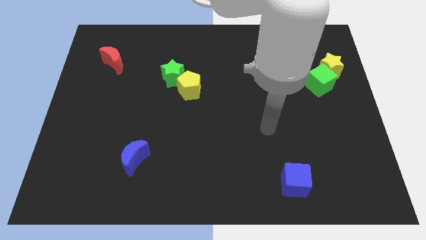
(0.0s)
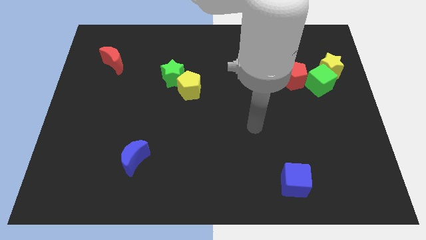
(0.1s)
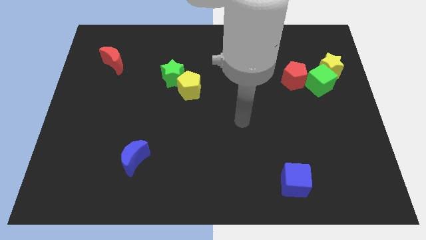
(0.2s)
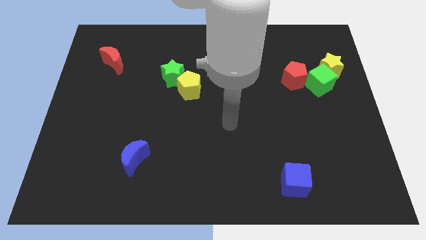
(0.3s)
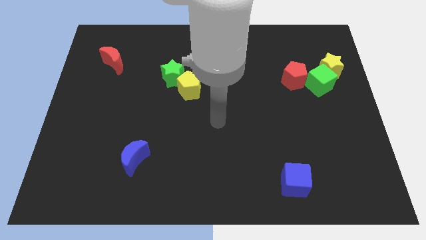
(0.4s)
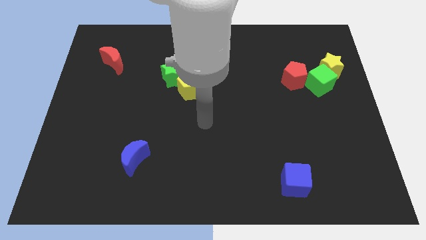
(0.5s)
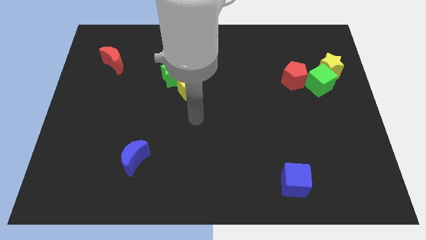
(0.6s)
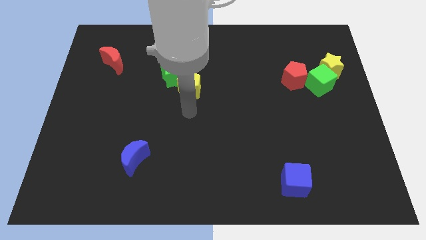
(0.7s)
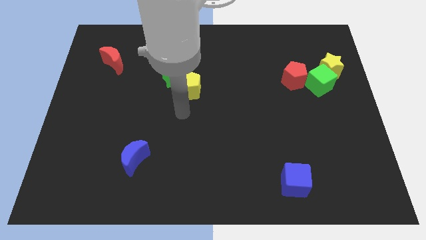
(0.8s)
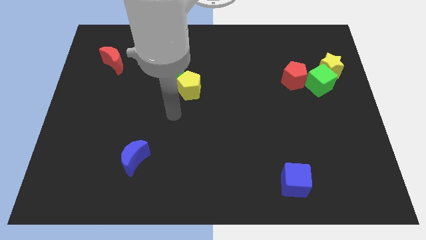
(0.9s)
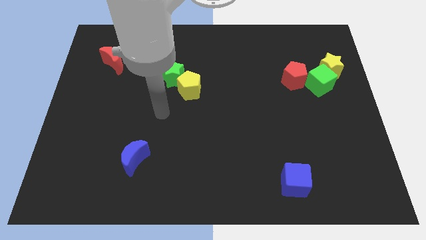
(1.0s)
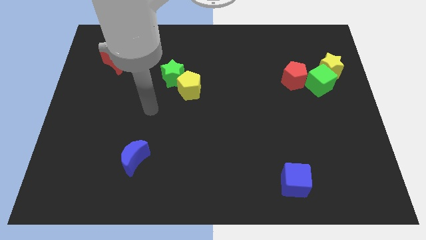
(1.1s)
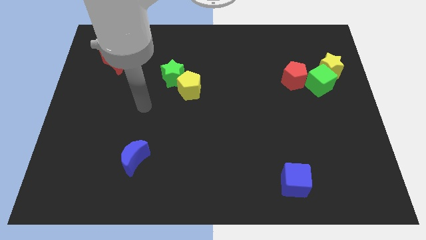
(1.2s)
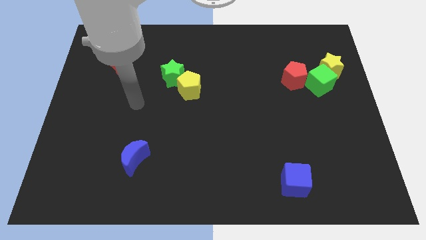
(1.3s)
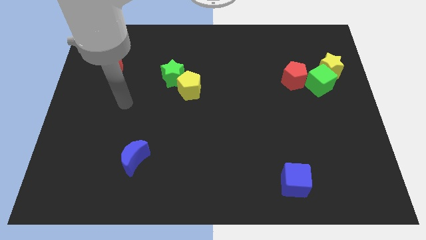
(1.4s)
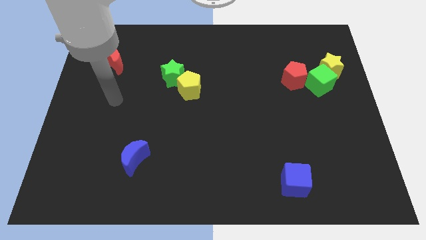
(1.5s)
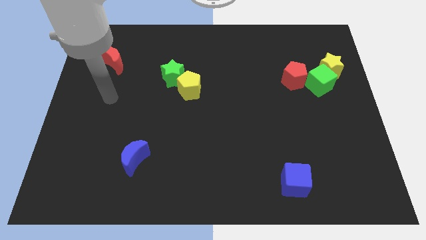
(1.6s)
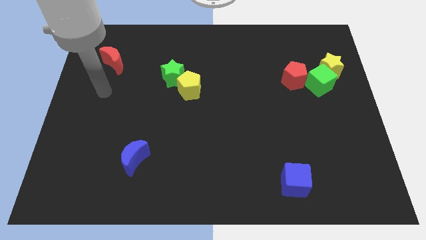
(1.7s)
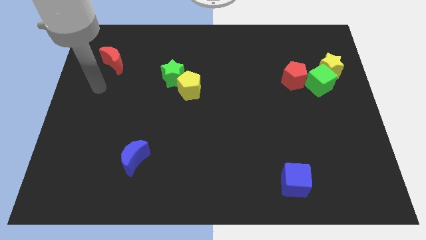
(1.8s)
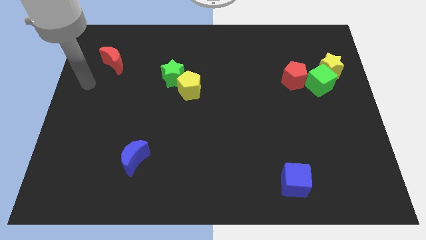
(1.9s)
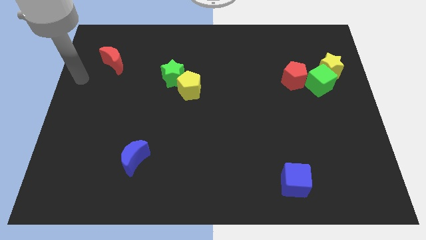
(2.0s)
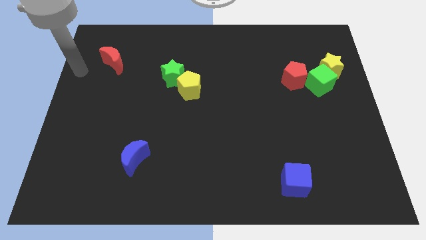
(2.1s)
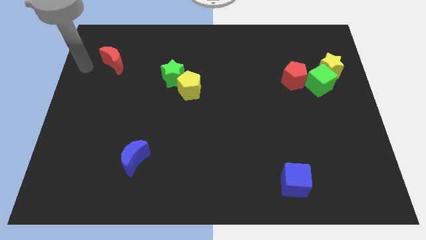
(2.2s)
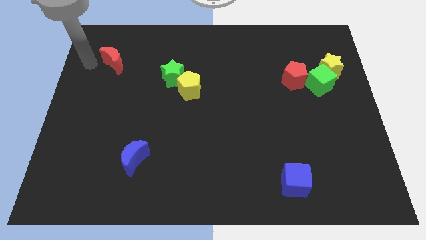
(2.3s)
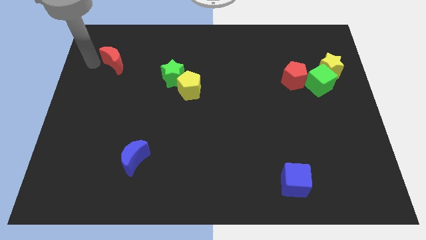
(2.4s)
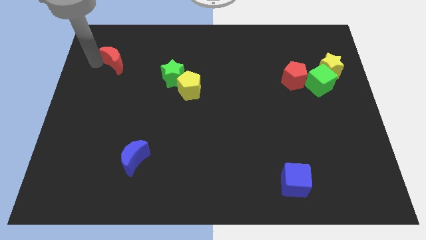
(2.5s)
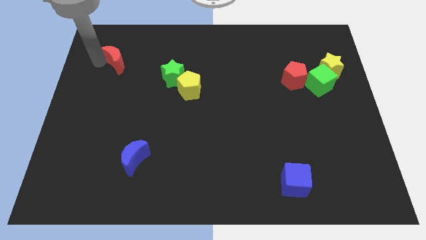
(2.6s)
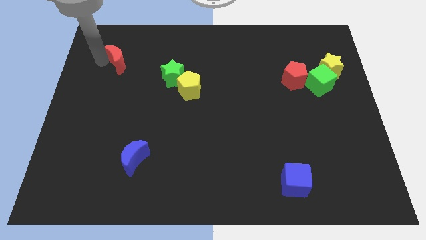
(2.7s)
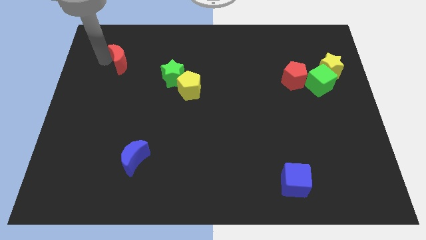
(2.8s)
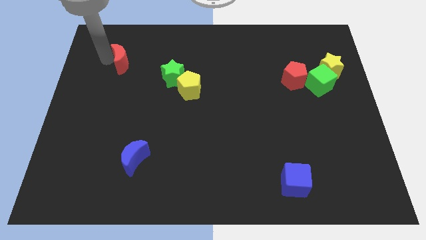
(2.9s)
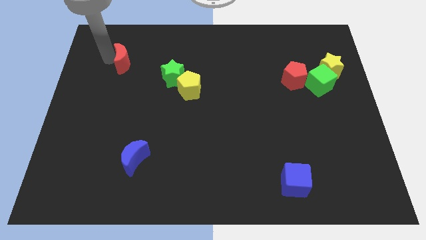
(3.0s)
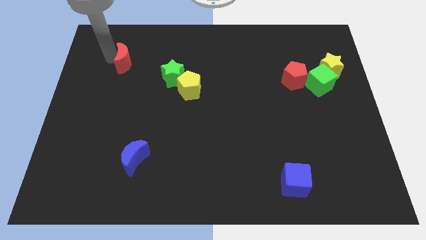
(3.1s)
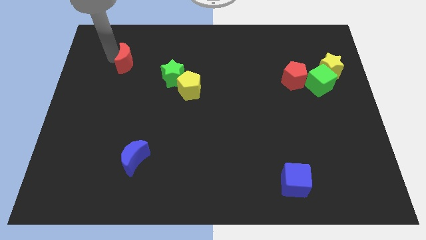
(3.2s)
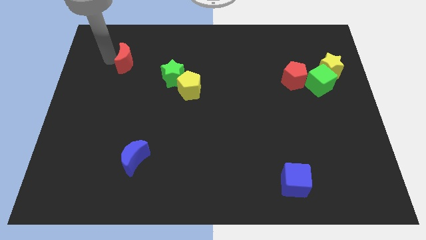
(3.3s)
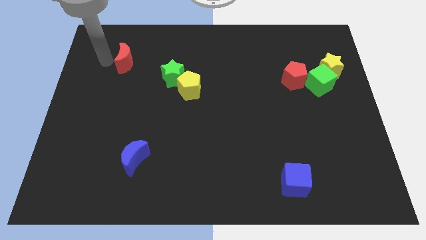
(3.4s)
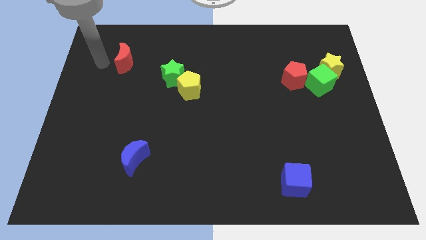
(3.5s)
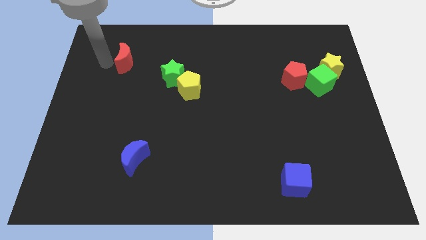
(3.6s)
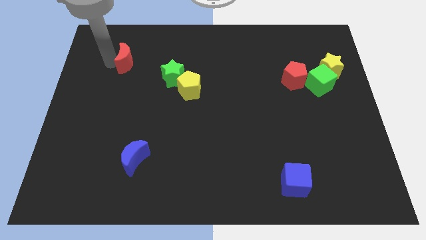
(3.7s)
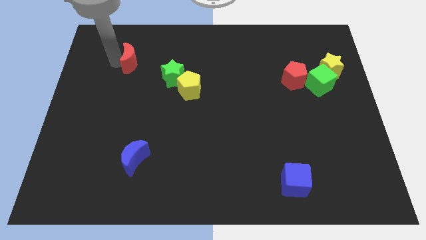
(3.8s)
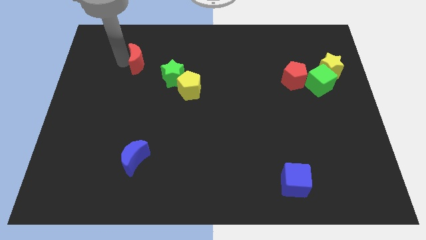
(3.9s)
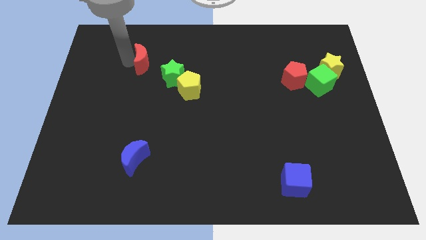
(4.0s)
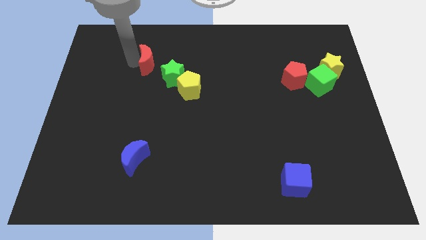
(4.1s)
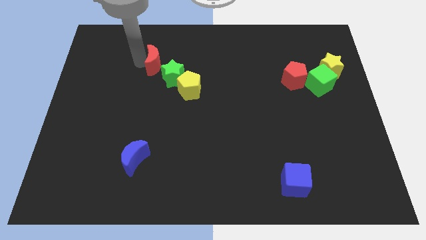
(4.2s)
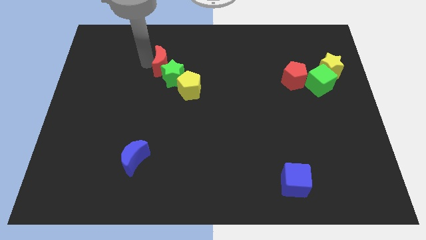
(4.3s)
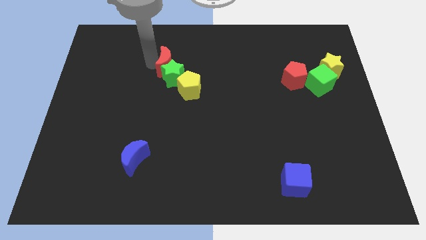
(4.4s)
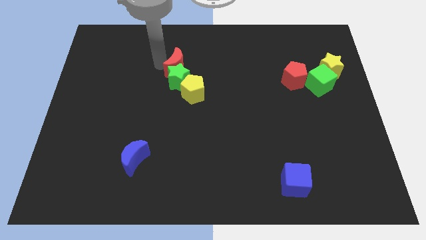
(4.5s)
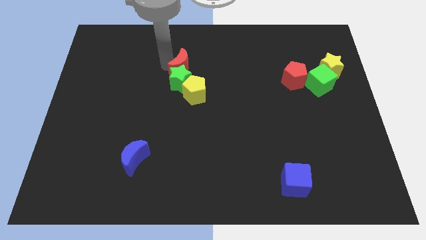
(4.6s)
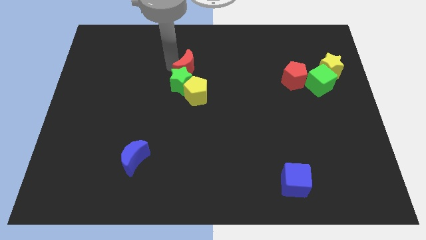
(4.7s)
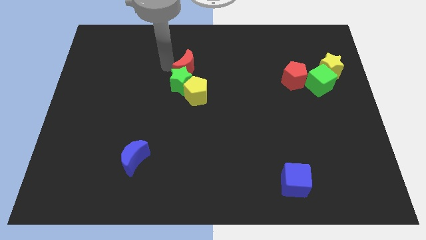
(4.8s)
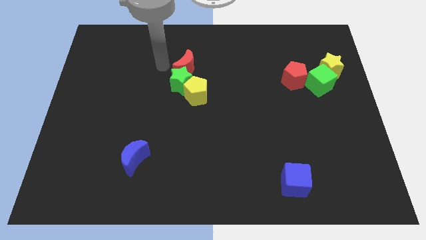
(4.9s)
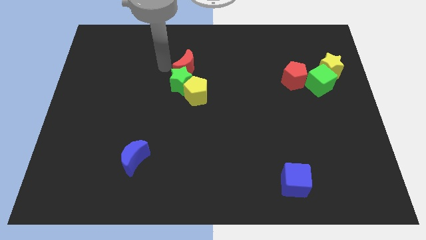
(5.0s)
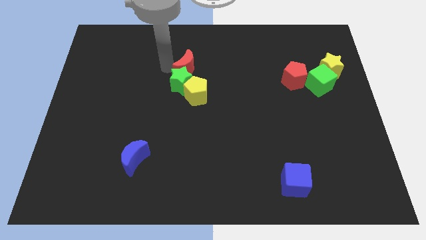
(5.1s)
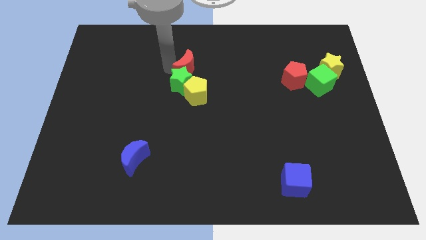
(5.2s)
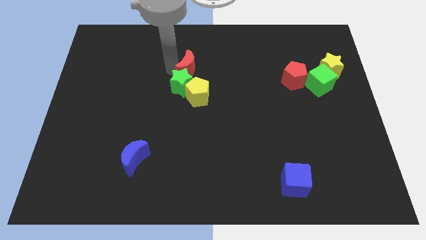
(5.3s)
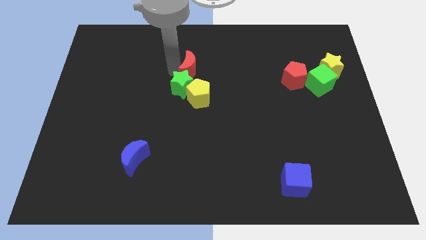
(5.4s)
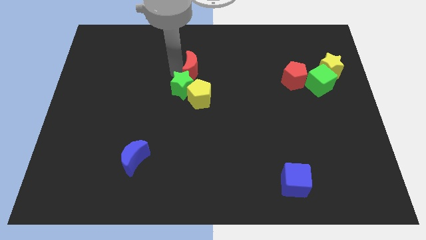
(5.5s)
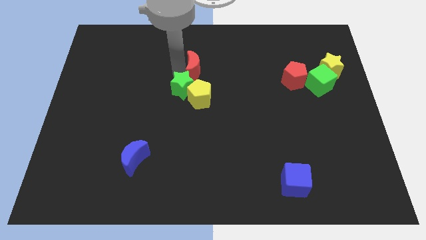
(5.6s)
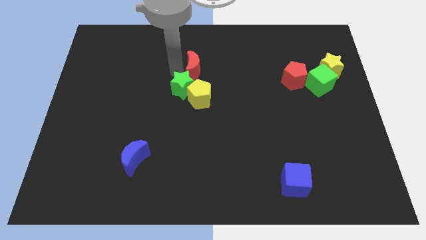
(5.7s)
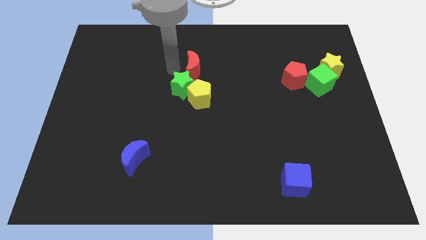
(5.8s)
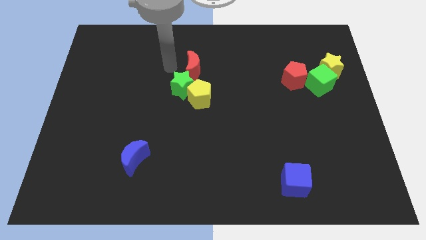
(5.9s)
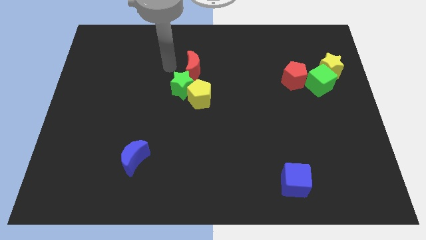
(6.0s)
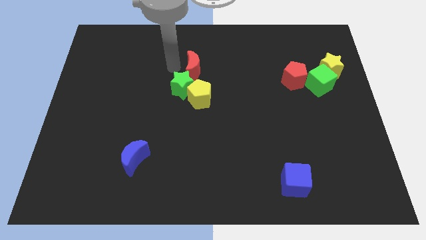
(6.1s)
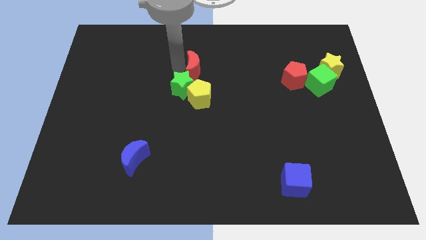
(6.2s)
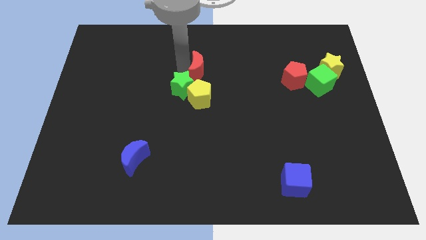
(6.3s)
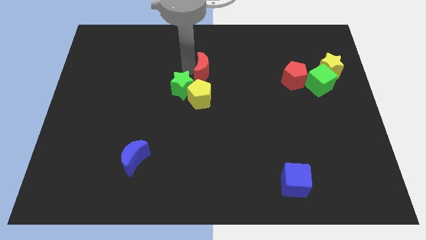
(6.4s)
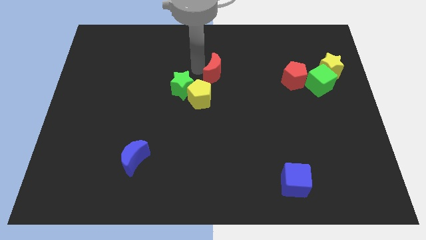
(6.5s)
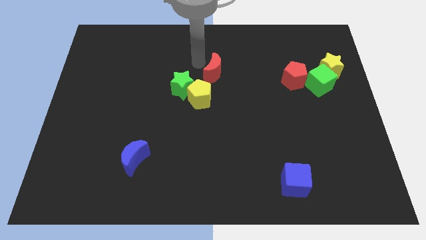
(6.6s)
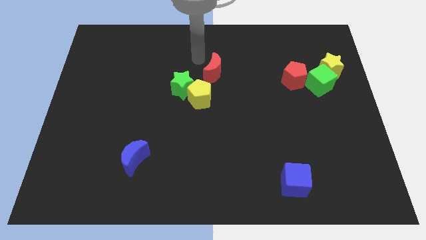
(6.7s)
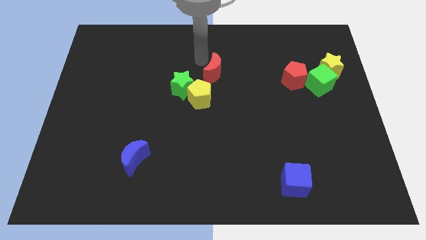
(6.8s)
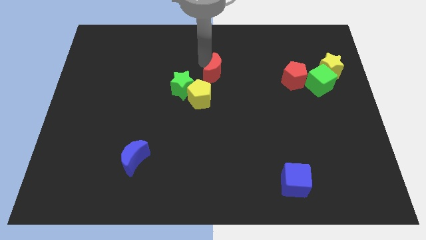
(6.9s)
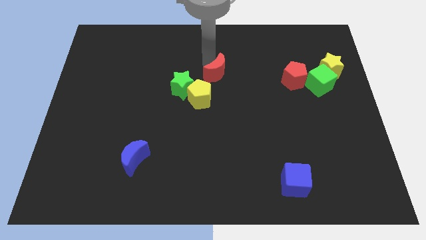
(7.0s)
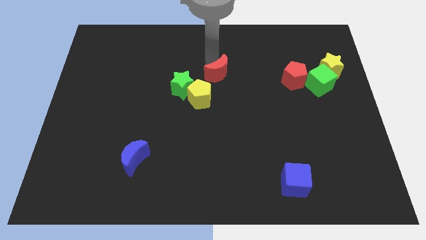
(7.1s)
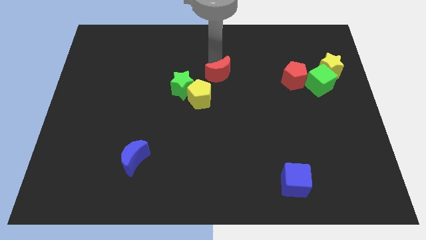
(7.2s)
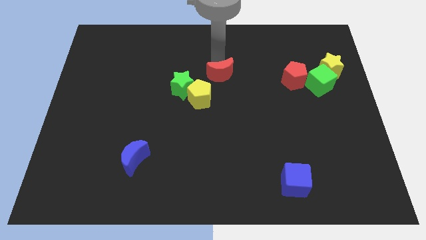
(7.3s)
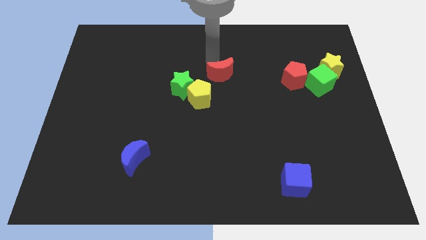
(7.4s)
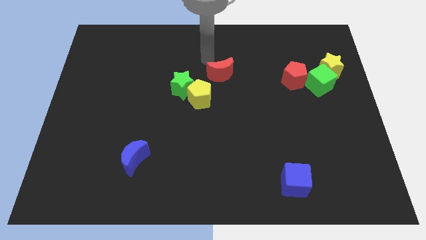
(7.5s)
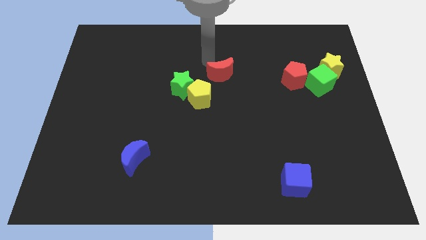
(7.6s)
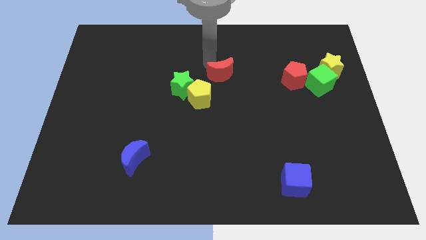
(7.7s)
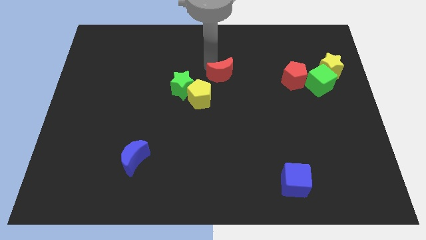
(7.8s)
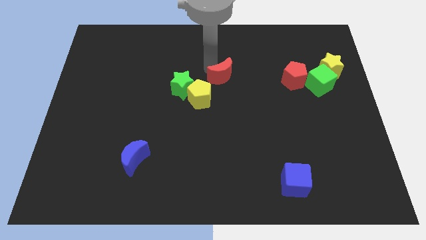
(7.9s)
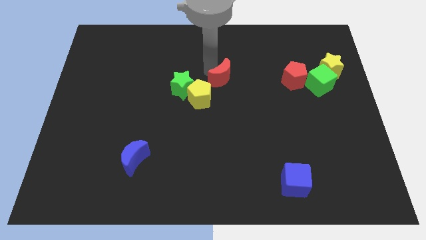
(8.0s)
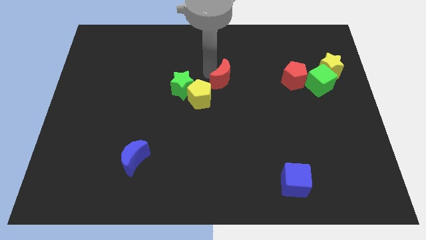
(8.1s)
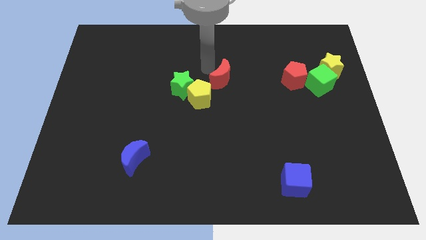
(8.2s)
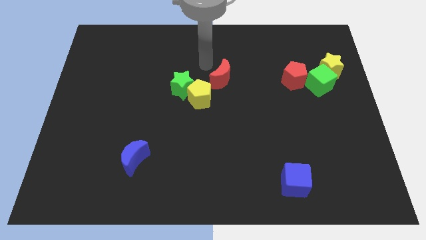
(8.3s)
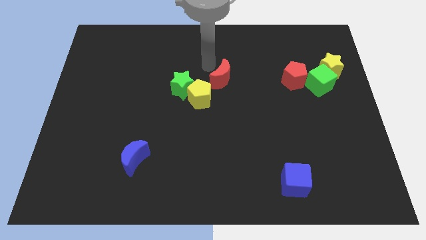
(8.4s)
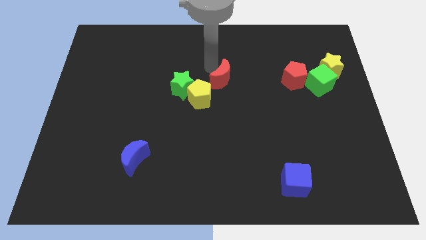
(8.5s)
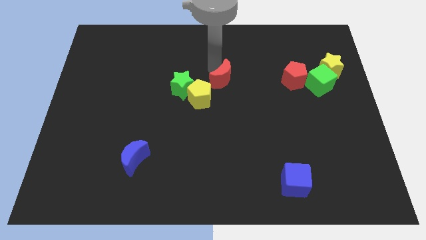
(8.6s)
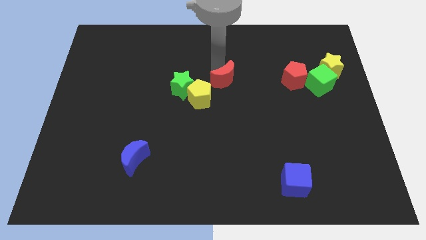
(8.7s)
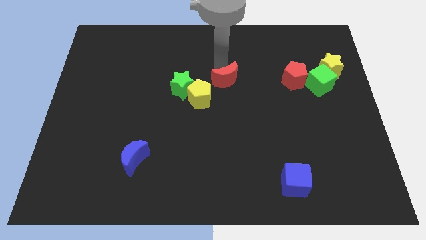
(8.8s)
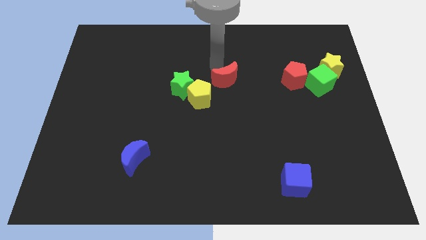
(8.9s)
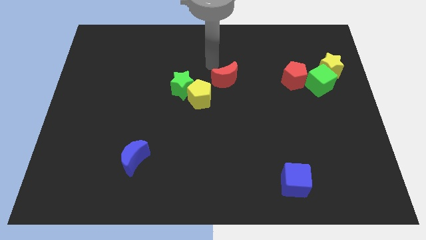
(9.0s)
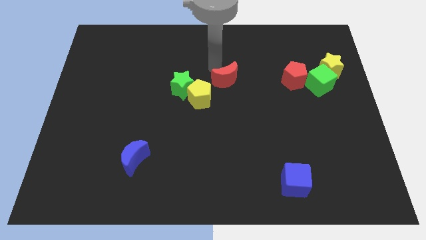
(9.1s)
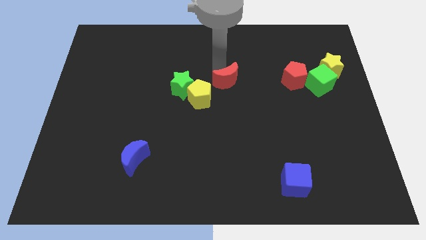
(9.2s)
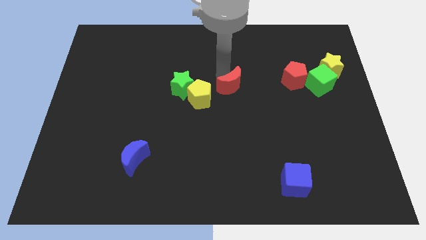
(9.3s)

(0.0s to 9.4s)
push the red moon to the right side of the yellow pentagon
